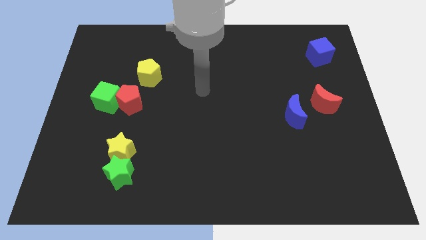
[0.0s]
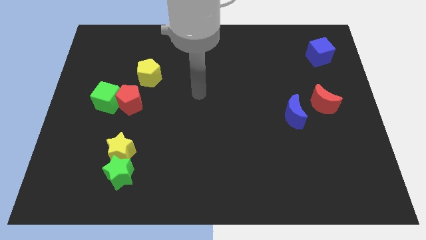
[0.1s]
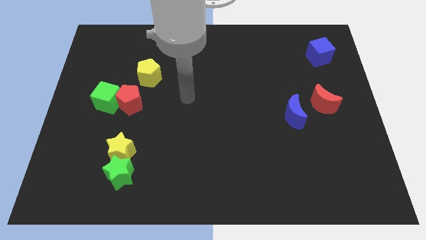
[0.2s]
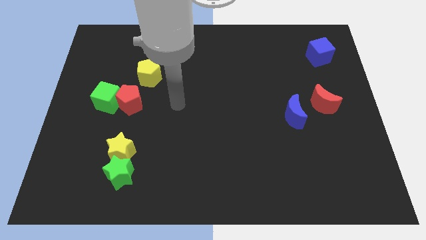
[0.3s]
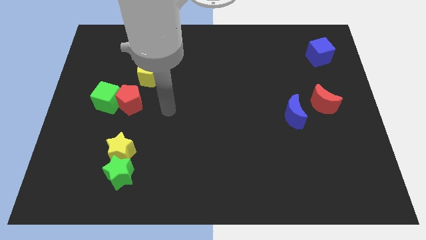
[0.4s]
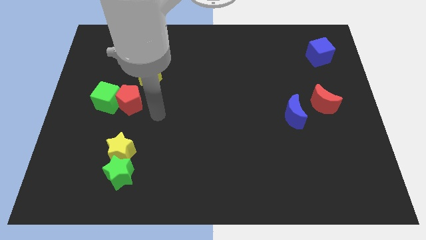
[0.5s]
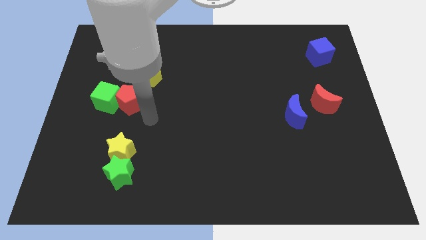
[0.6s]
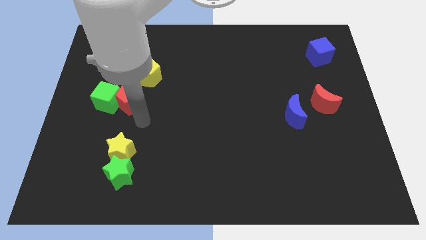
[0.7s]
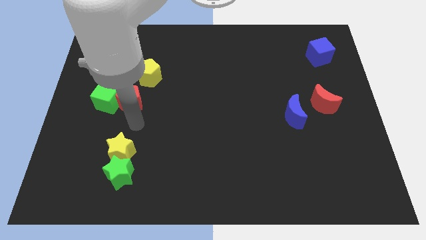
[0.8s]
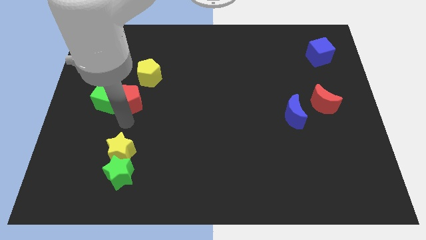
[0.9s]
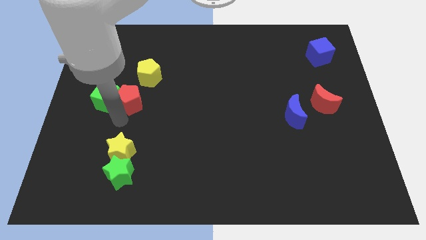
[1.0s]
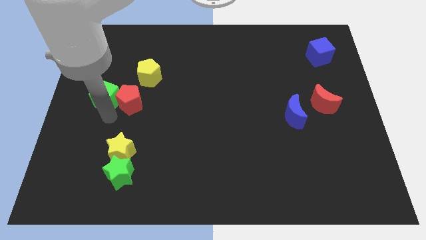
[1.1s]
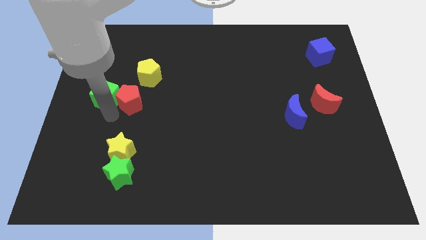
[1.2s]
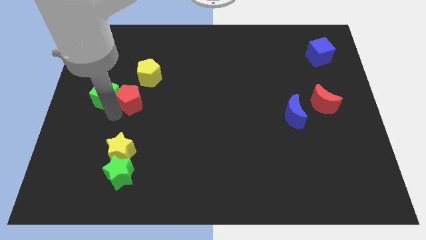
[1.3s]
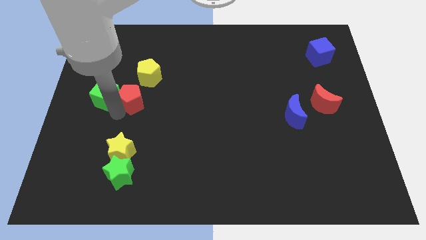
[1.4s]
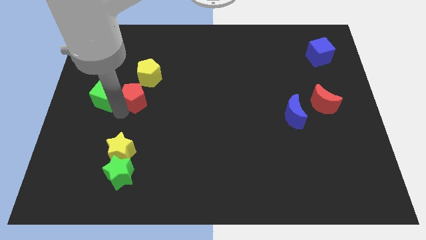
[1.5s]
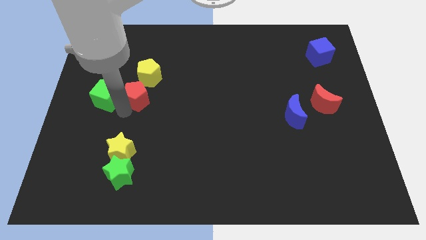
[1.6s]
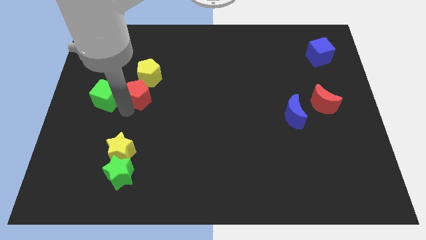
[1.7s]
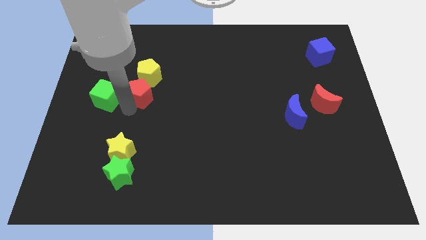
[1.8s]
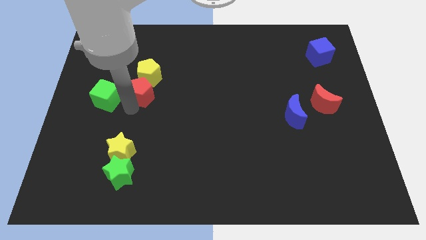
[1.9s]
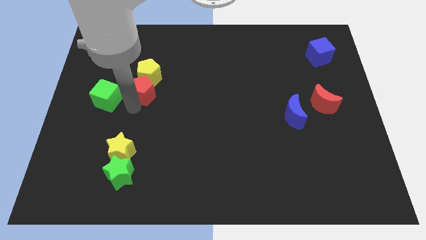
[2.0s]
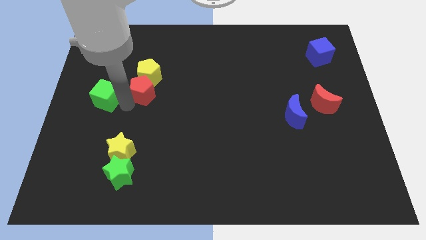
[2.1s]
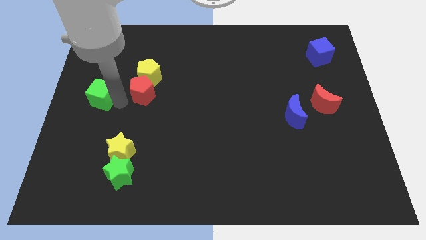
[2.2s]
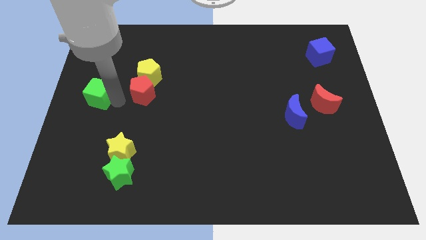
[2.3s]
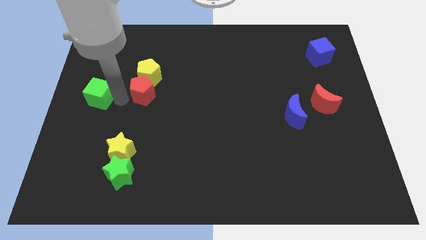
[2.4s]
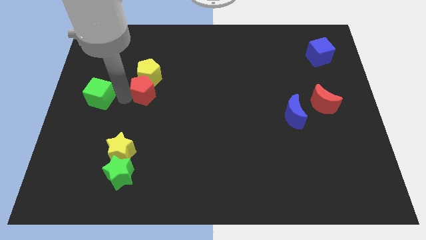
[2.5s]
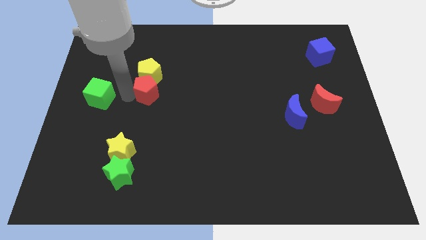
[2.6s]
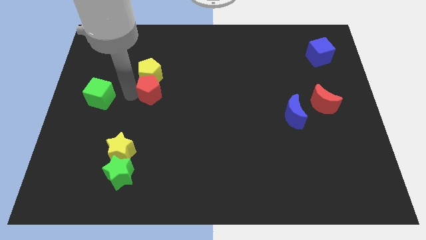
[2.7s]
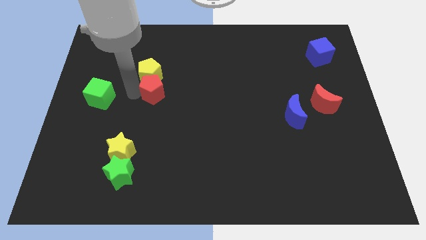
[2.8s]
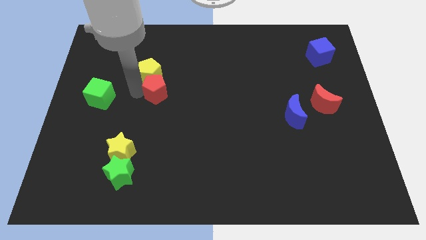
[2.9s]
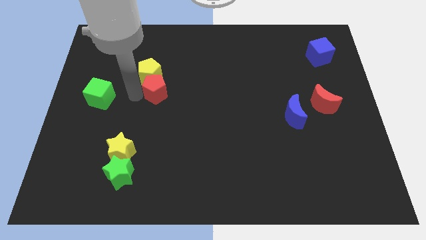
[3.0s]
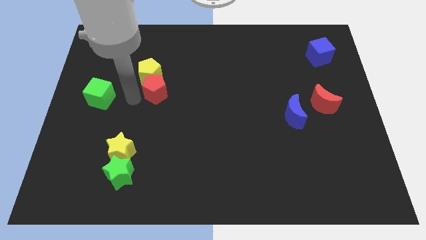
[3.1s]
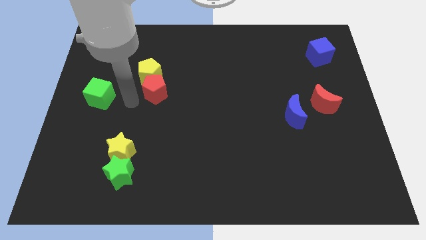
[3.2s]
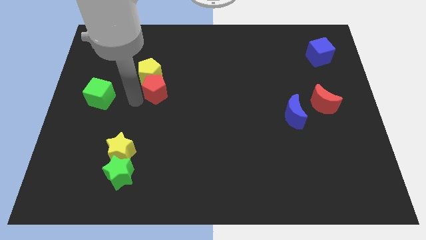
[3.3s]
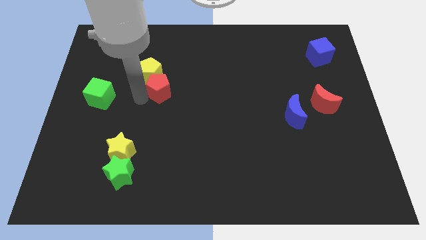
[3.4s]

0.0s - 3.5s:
slightly move the red pentagon upwards and right

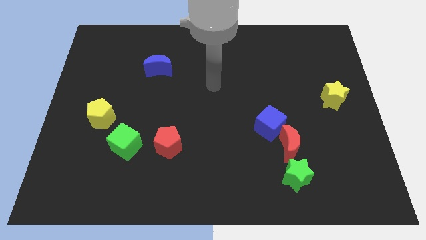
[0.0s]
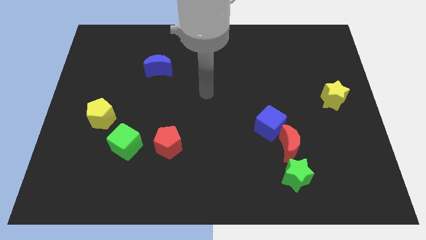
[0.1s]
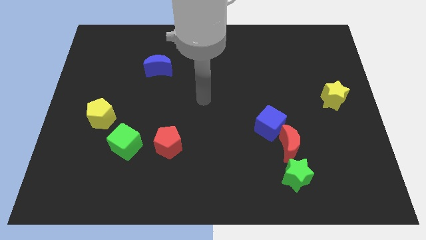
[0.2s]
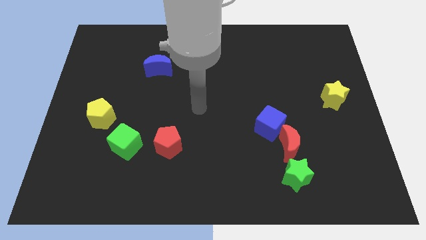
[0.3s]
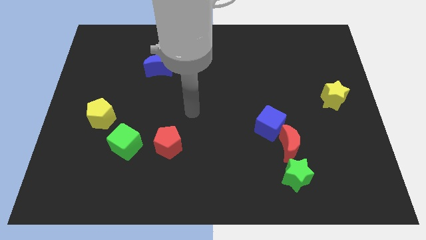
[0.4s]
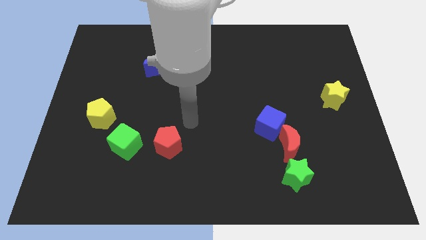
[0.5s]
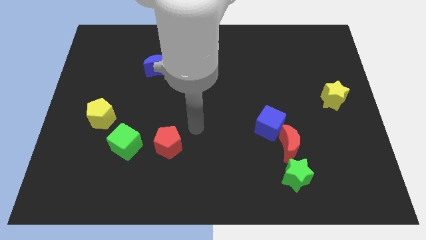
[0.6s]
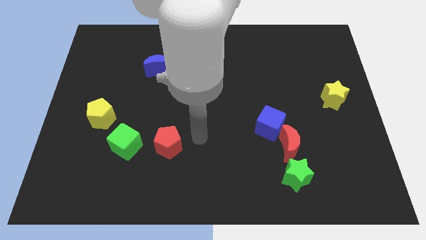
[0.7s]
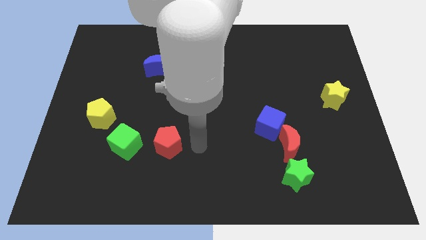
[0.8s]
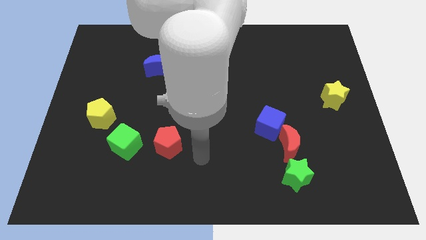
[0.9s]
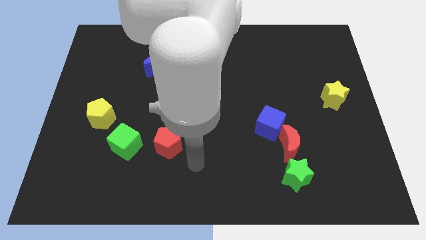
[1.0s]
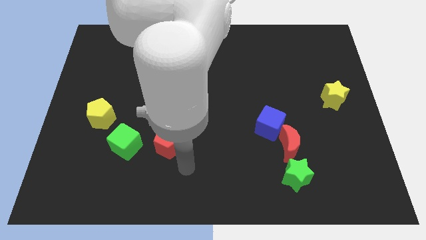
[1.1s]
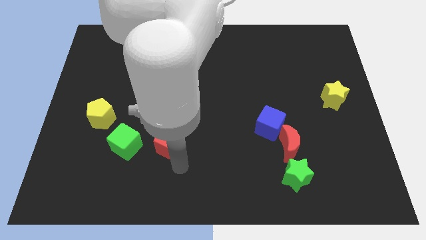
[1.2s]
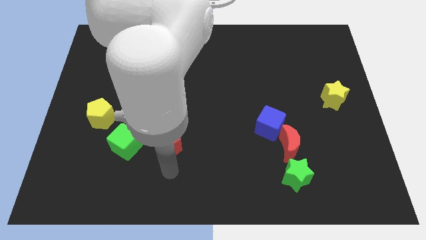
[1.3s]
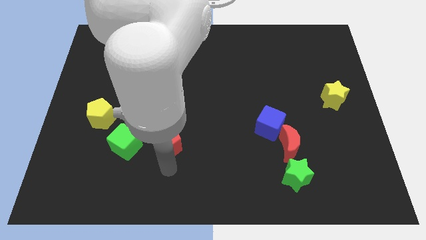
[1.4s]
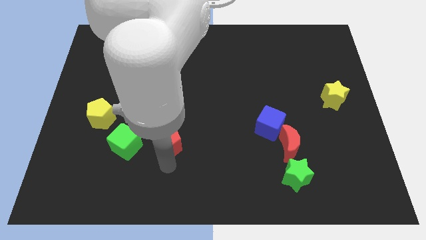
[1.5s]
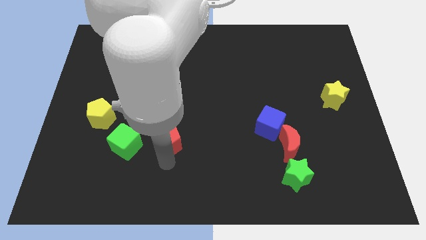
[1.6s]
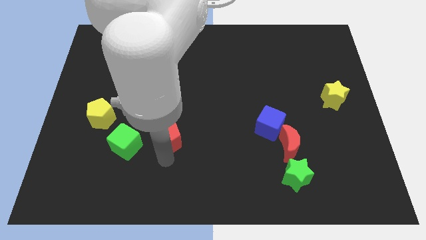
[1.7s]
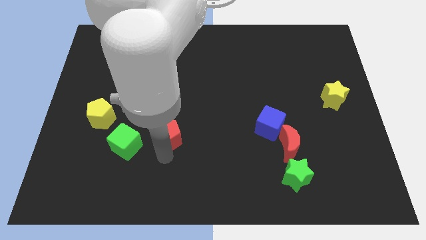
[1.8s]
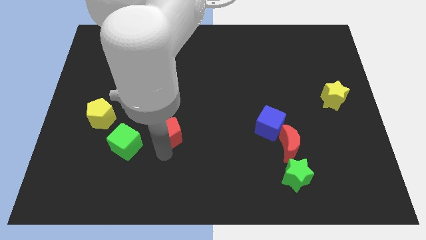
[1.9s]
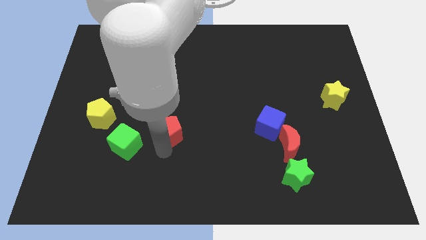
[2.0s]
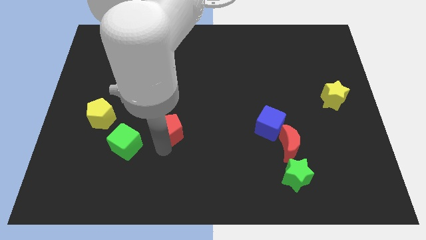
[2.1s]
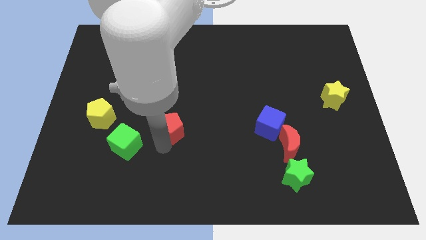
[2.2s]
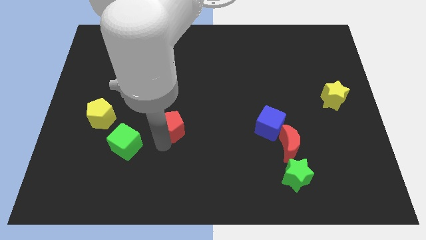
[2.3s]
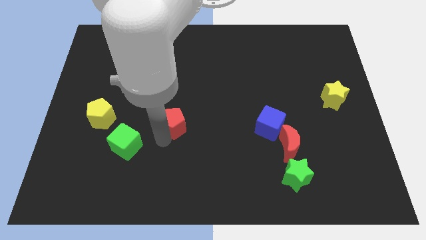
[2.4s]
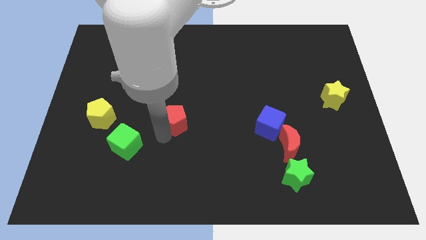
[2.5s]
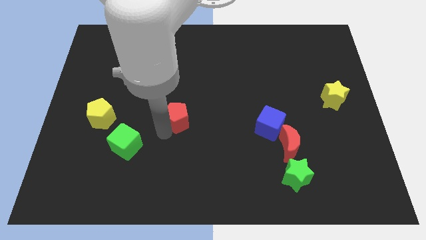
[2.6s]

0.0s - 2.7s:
slightly slide the red pentagon upwards

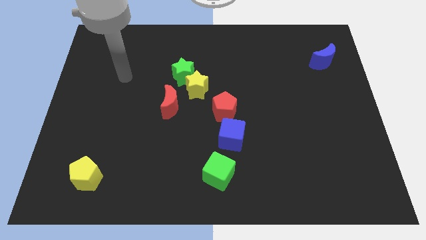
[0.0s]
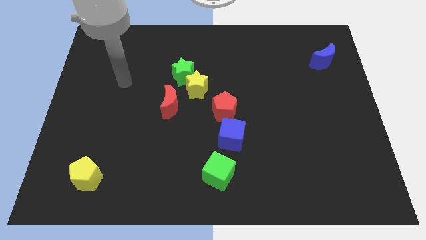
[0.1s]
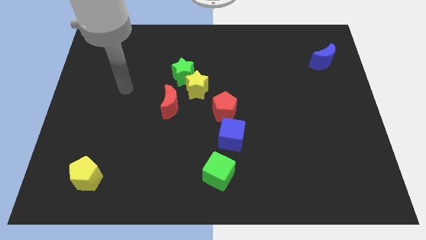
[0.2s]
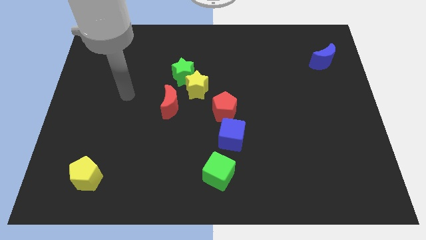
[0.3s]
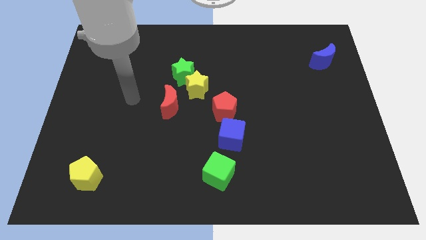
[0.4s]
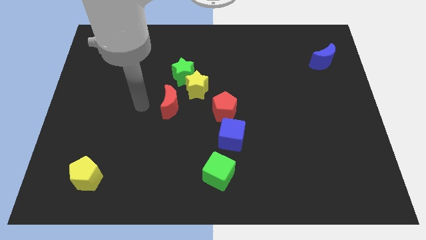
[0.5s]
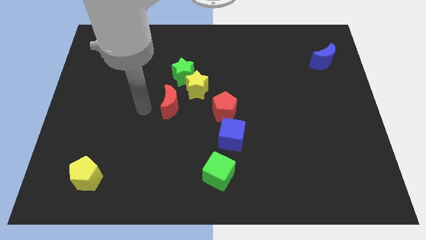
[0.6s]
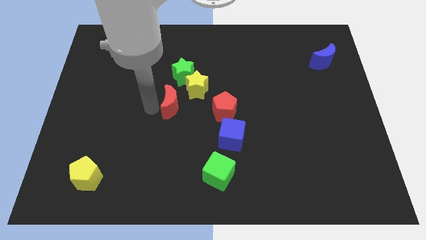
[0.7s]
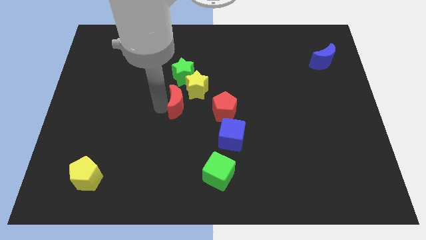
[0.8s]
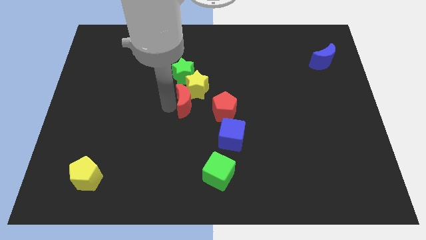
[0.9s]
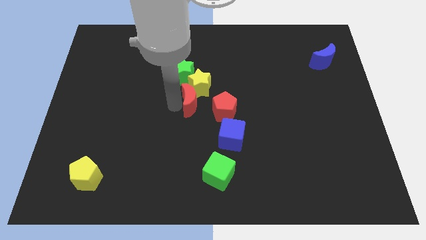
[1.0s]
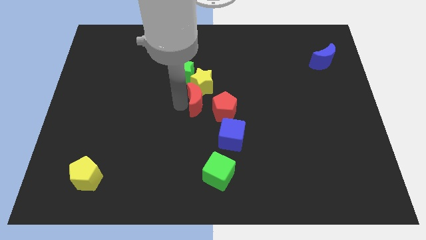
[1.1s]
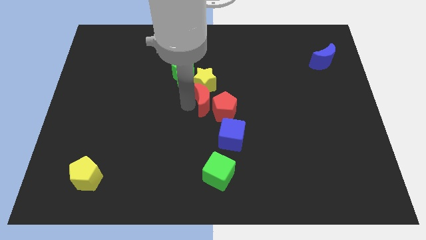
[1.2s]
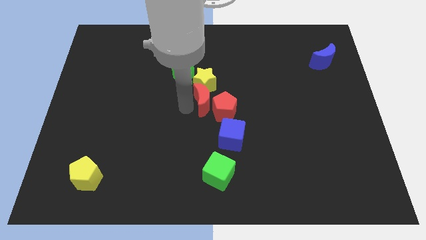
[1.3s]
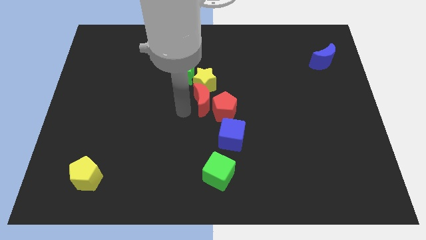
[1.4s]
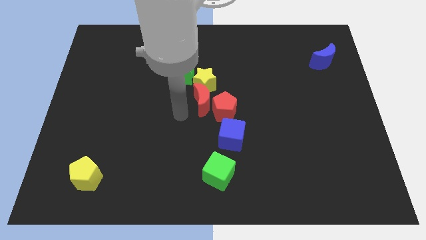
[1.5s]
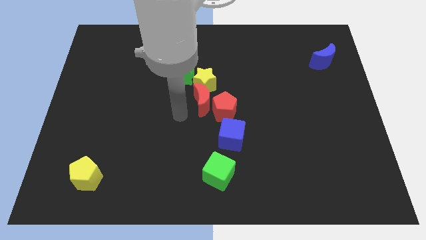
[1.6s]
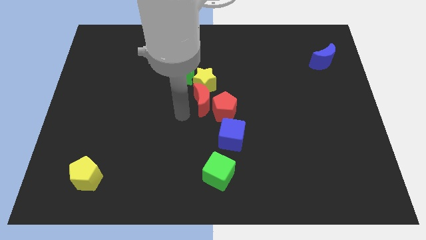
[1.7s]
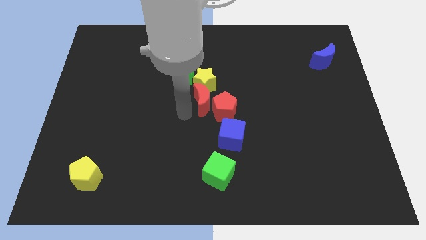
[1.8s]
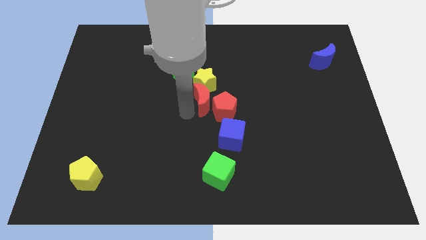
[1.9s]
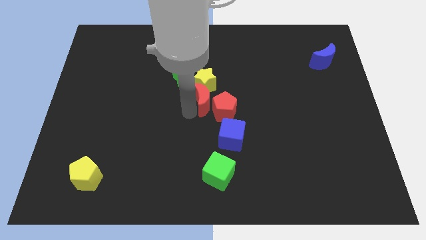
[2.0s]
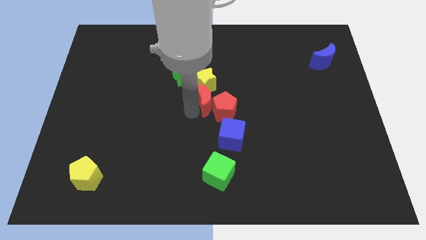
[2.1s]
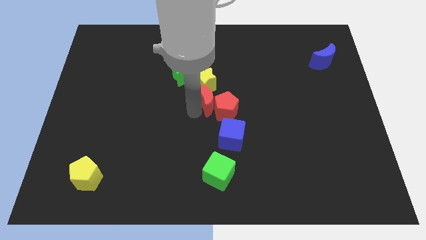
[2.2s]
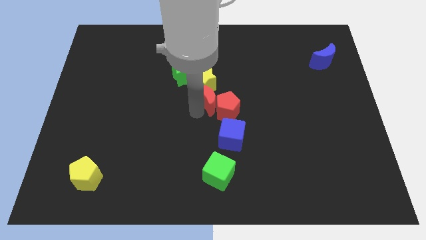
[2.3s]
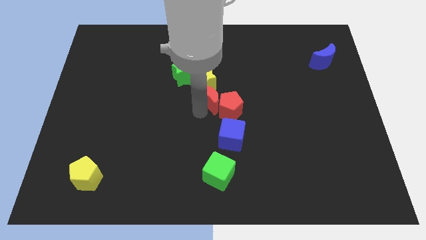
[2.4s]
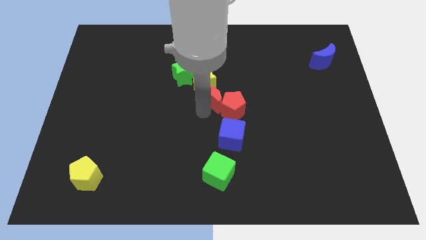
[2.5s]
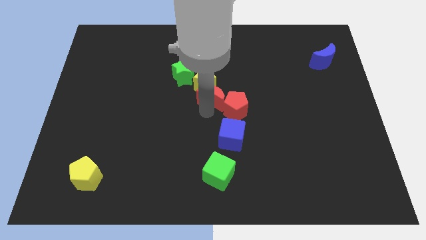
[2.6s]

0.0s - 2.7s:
slide the red moon upwards and then right a little
